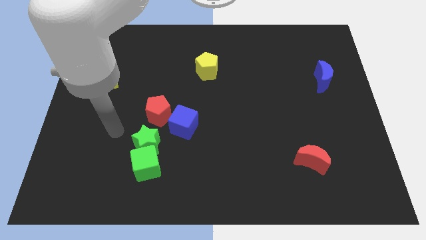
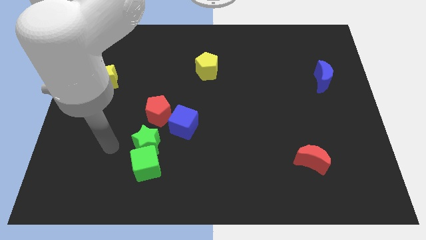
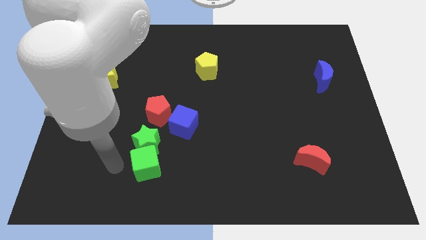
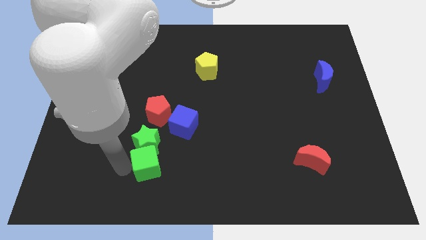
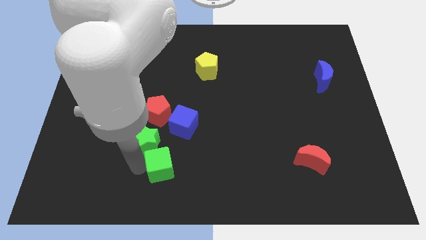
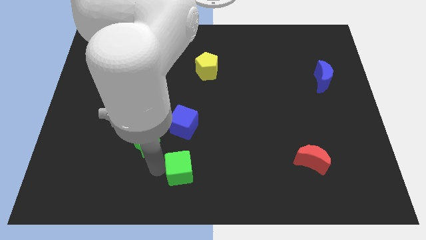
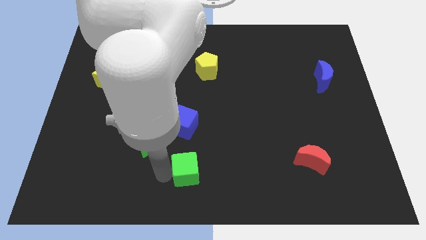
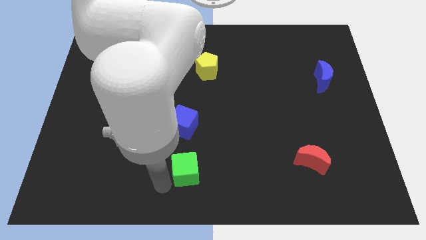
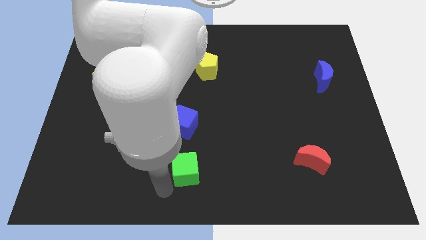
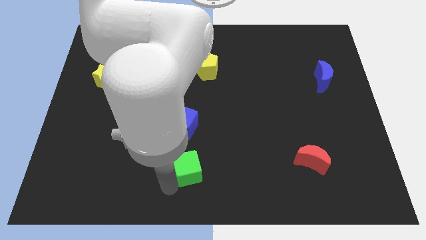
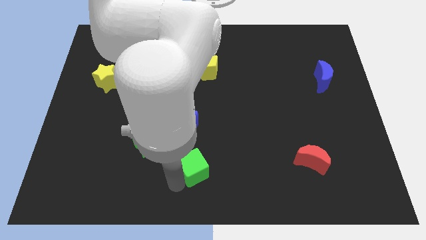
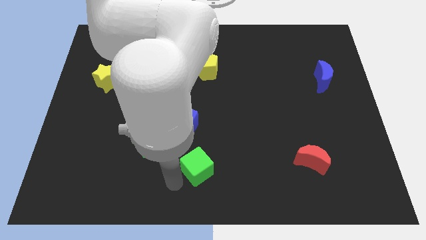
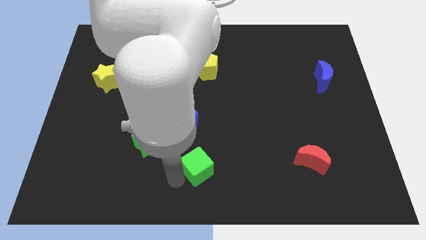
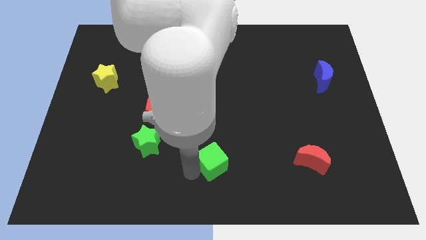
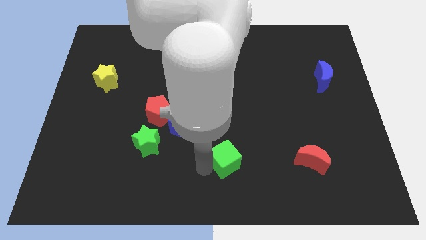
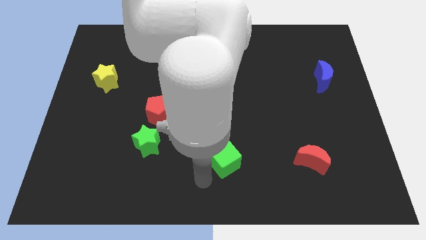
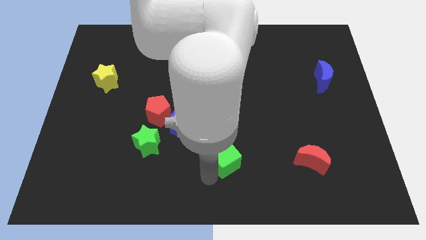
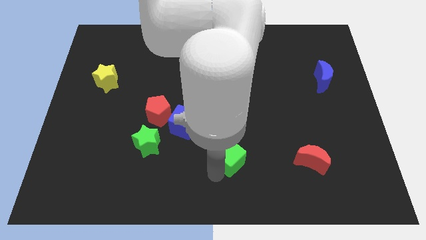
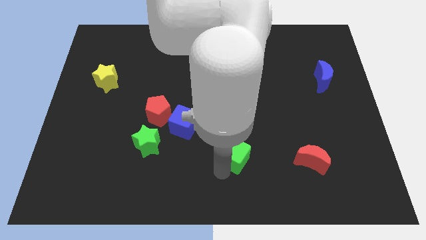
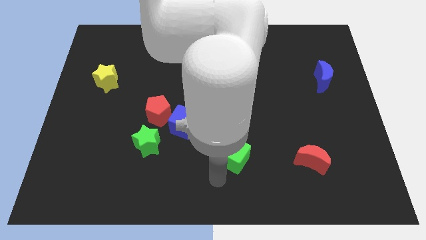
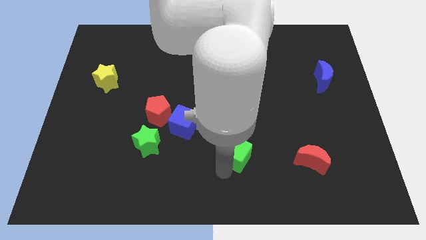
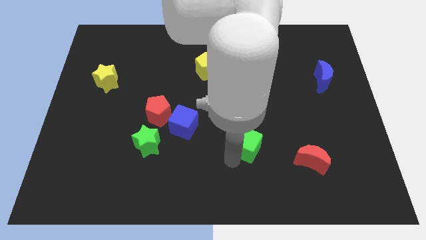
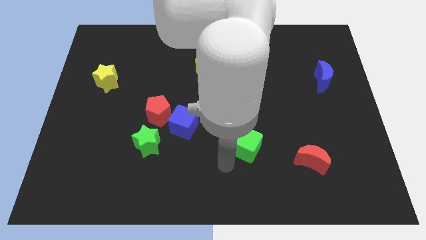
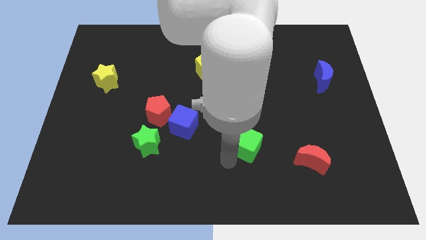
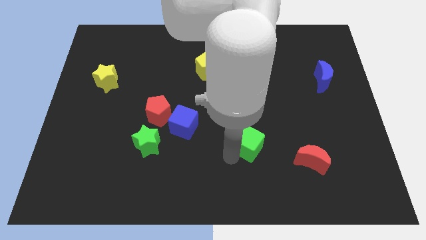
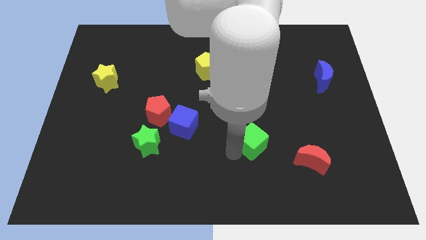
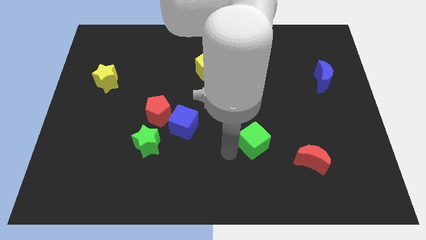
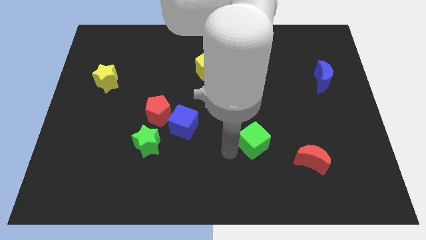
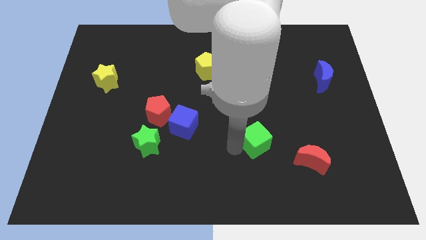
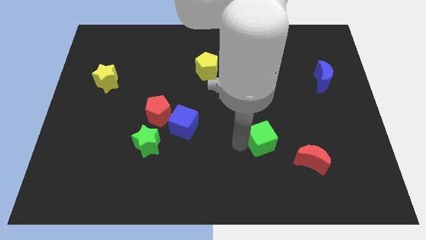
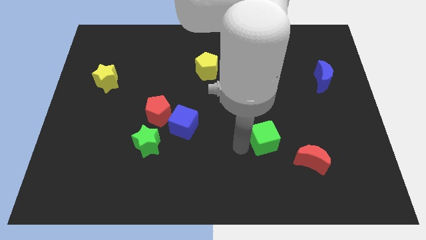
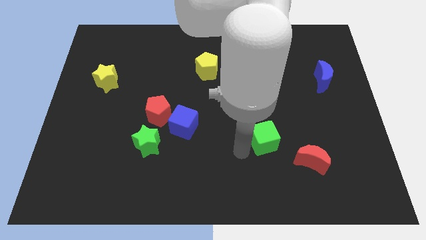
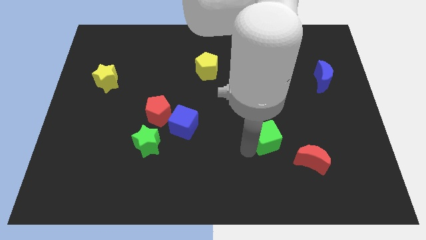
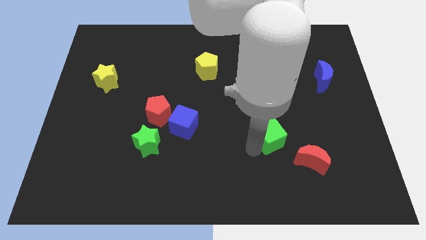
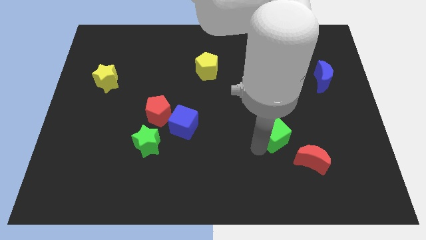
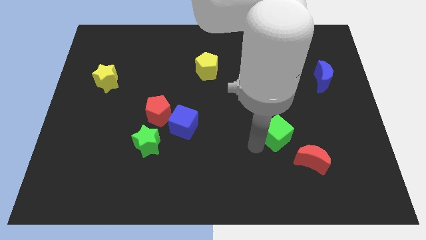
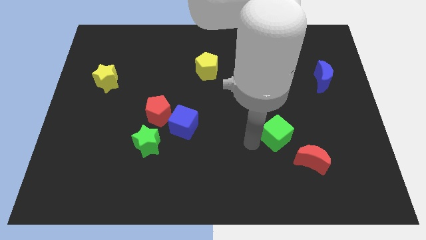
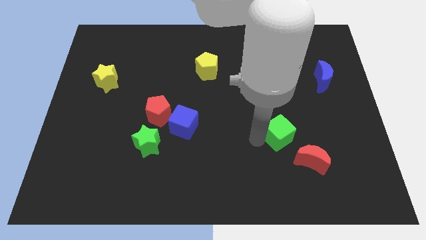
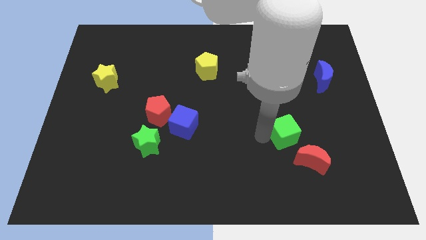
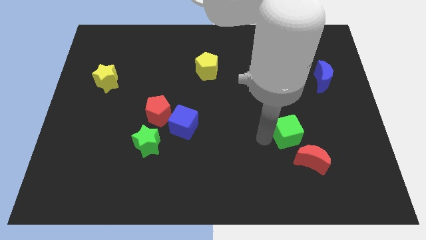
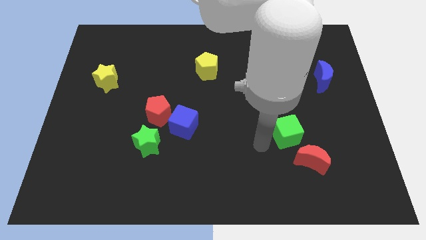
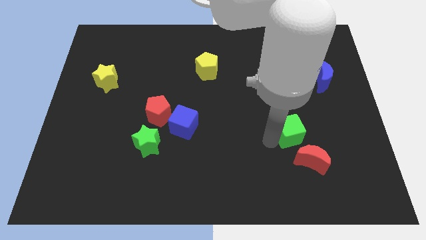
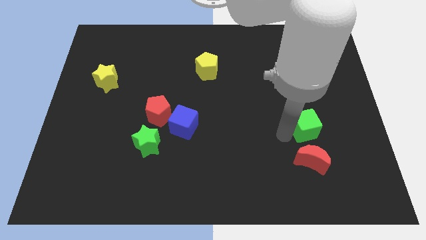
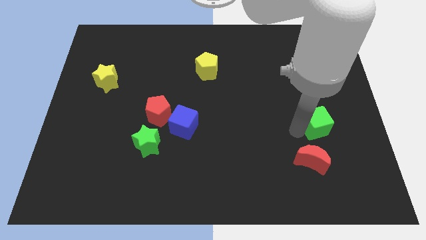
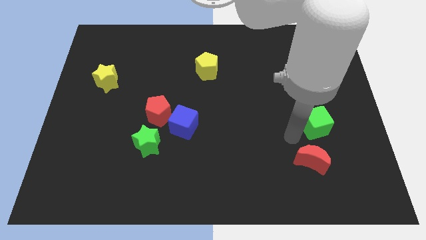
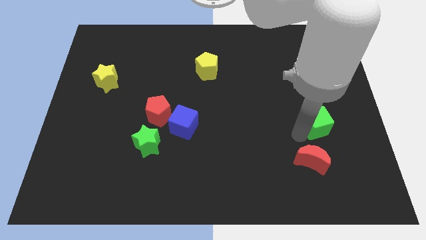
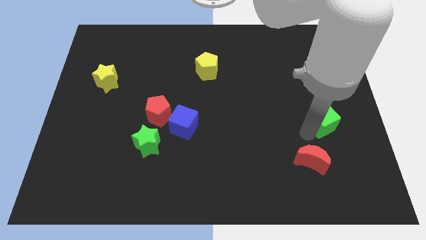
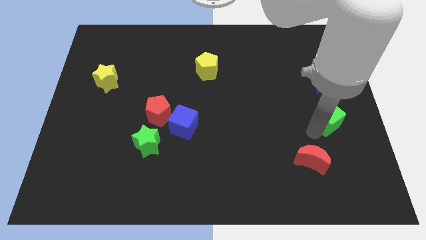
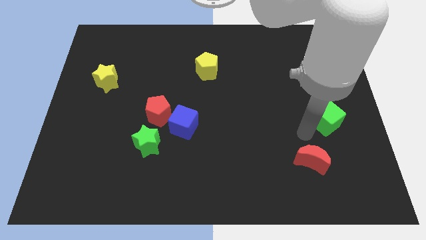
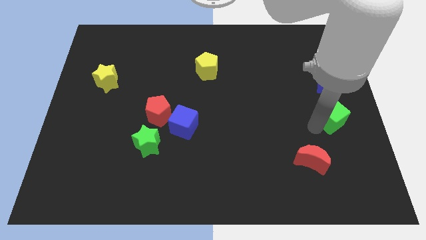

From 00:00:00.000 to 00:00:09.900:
slide the green cube to the right side

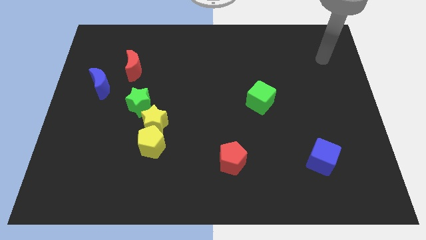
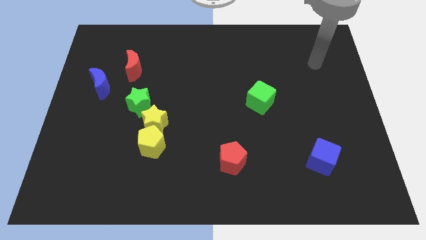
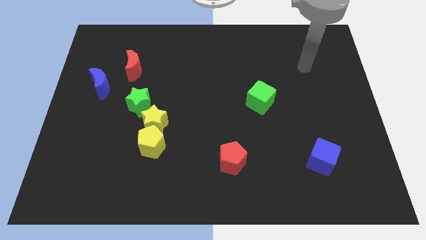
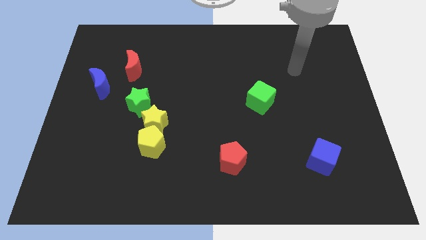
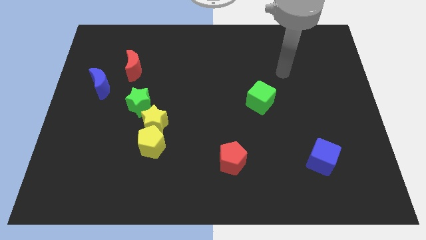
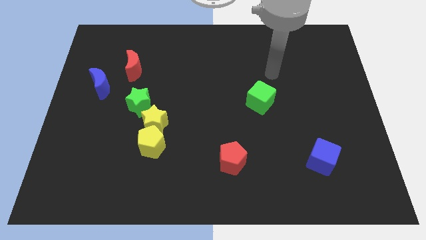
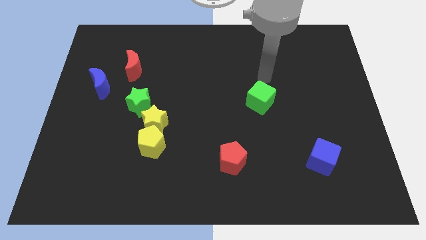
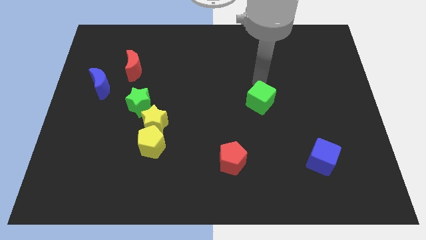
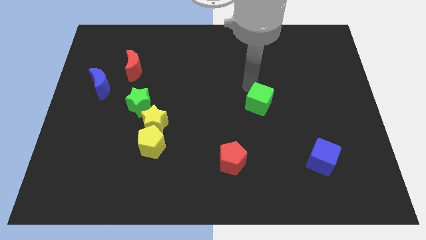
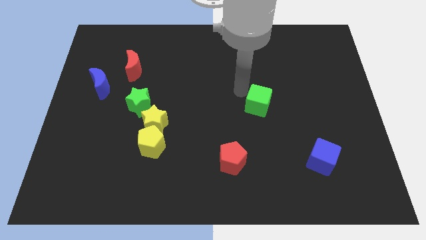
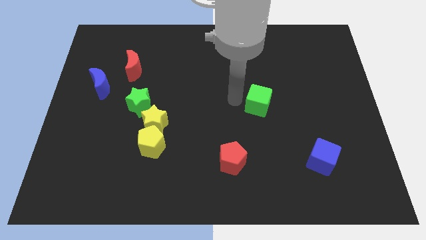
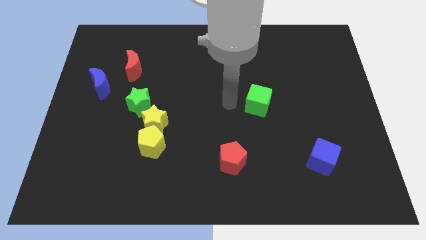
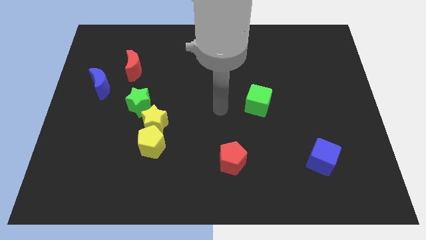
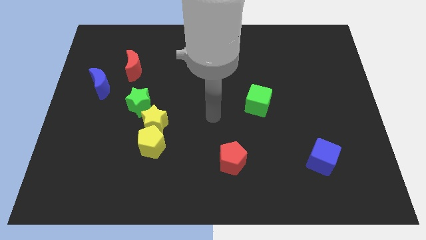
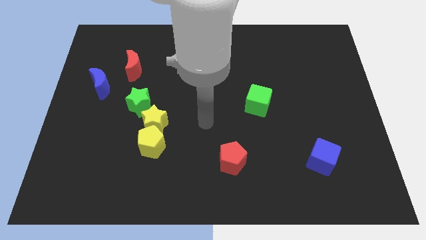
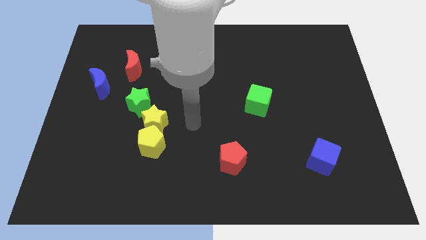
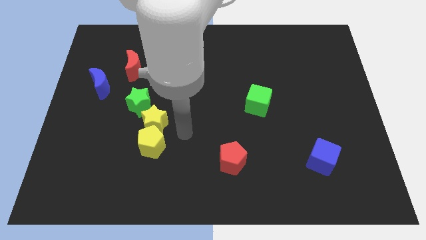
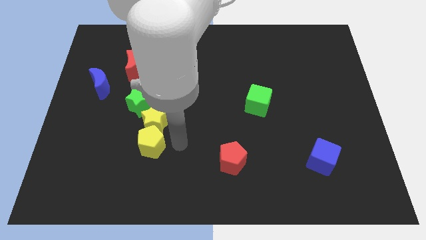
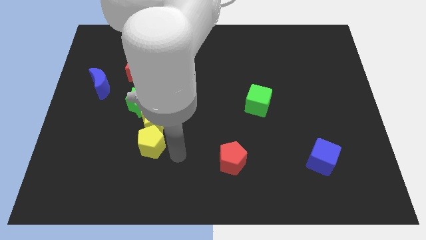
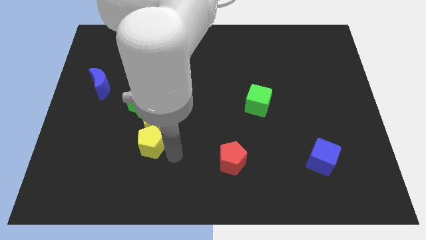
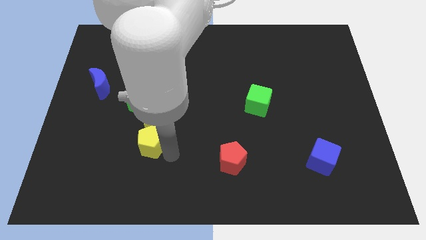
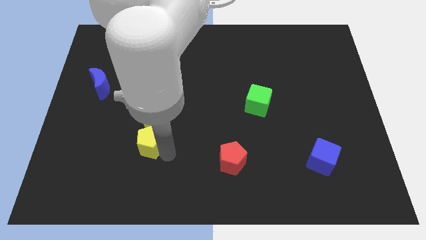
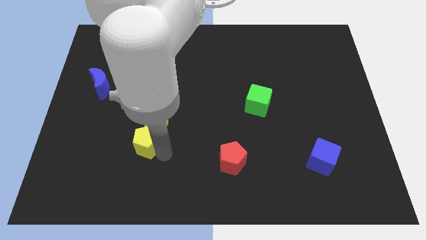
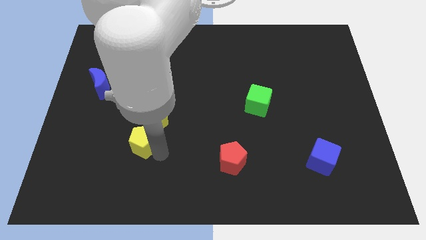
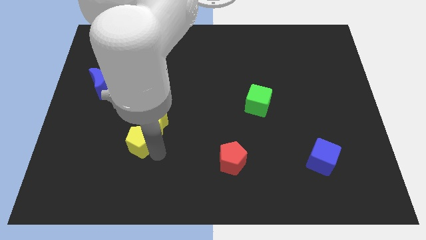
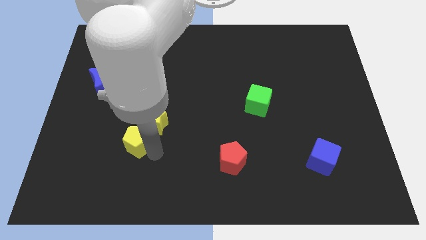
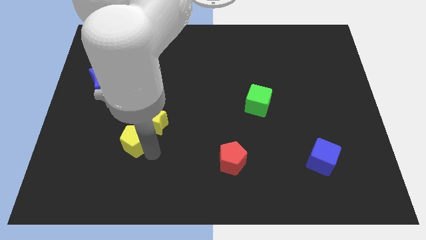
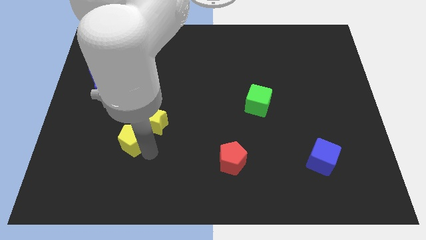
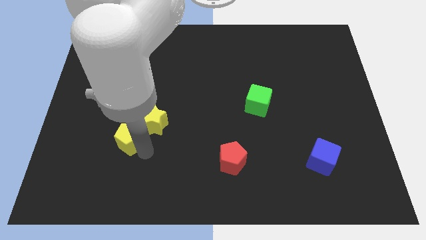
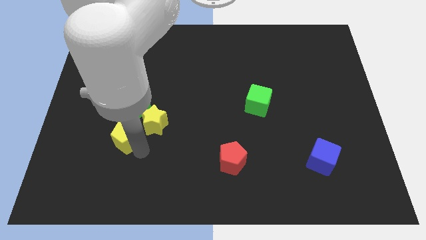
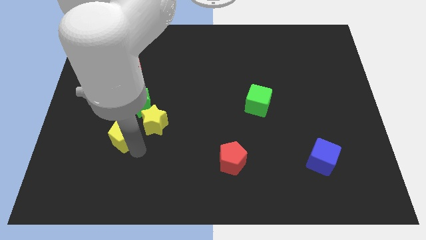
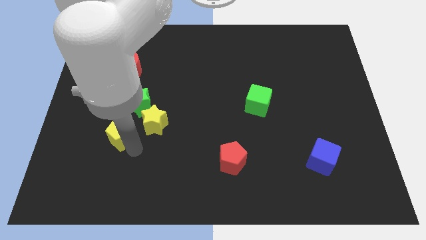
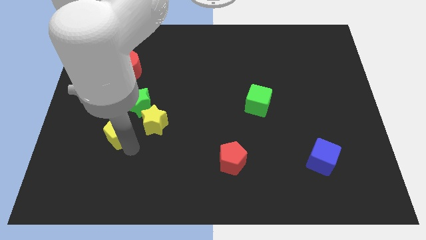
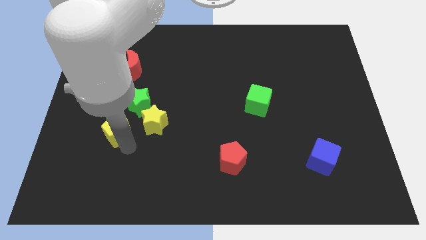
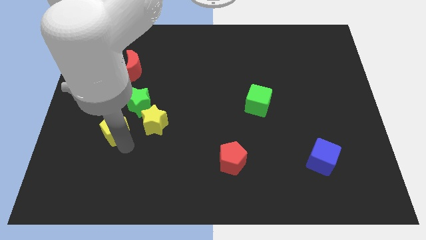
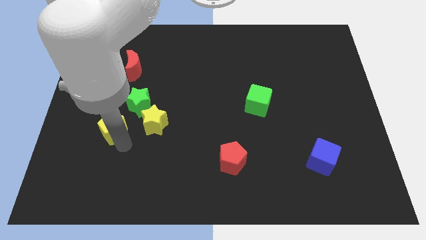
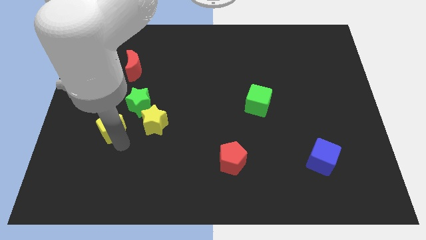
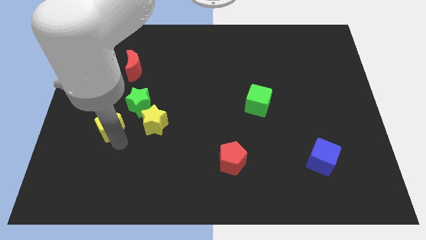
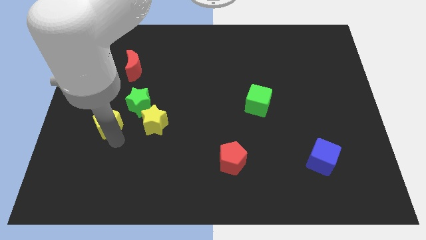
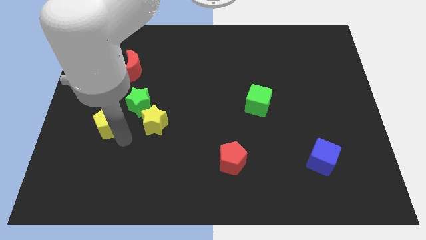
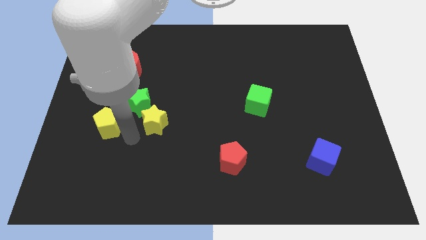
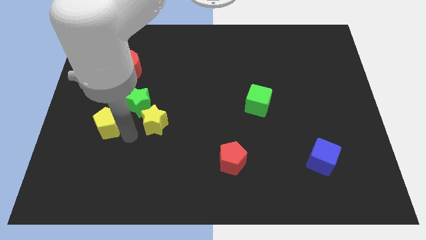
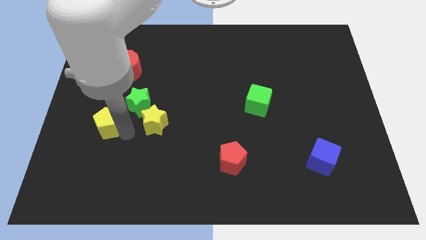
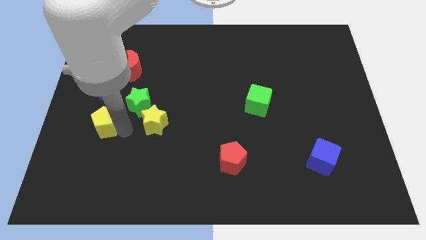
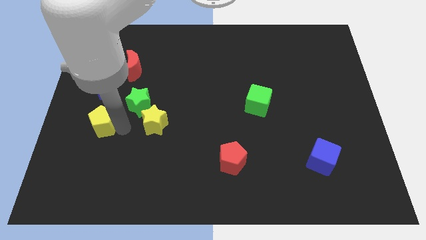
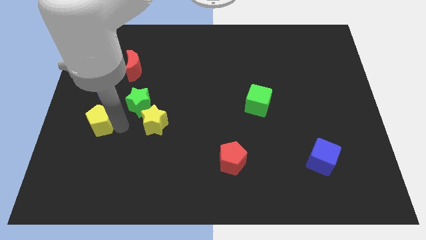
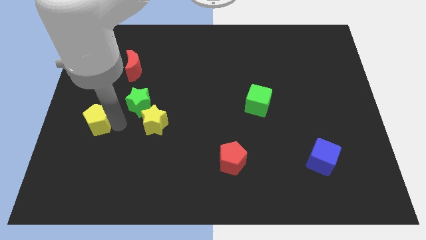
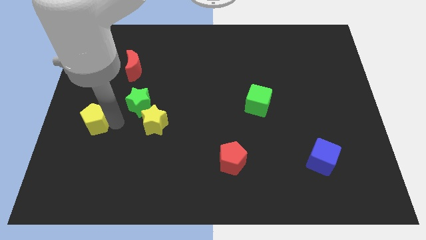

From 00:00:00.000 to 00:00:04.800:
push the yellow pentagon to the center left
